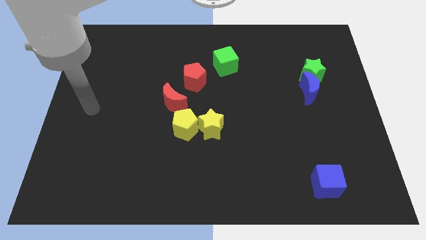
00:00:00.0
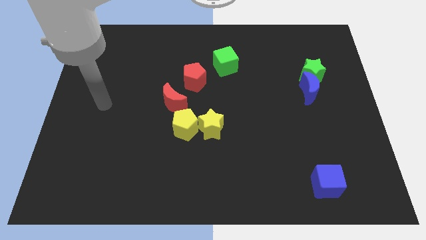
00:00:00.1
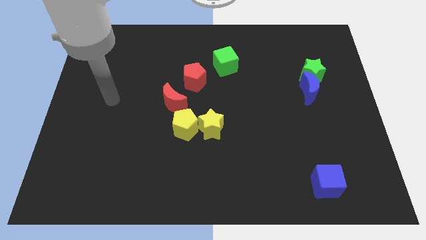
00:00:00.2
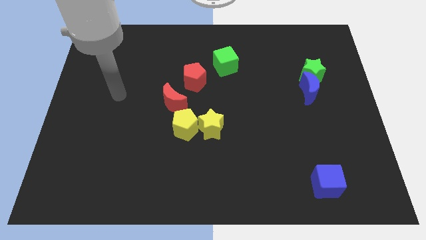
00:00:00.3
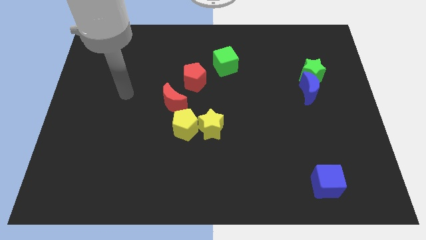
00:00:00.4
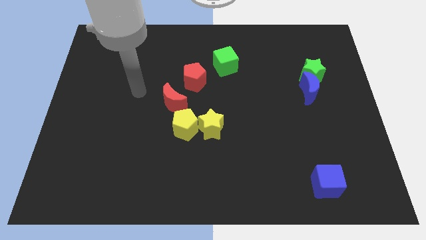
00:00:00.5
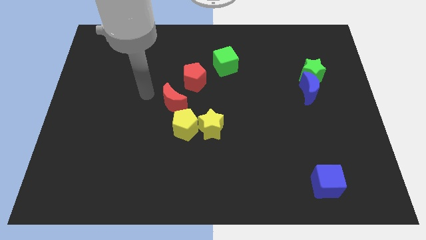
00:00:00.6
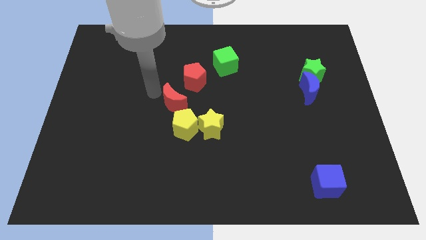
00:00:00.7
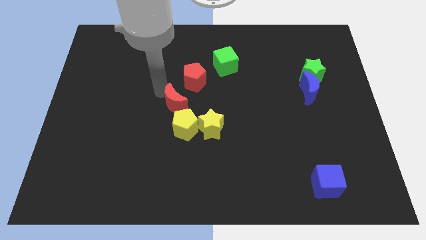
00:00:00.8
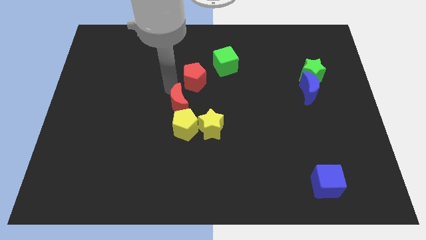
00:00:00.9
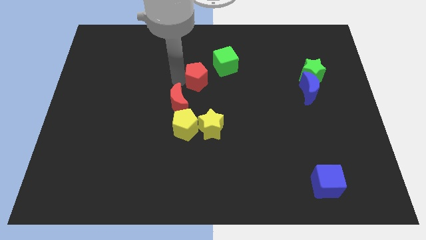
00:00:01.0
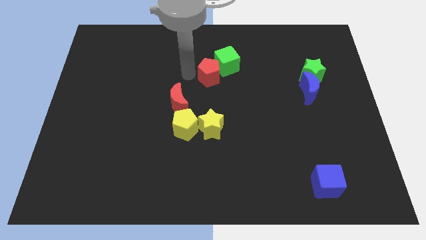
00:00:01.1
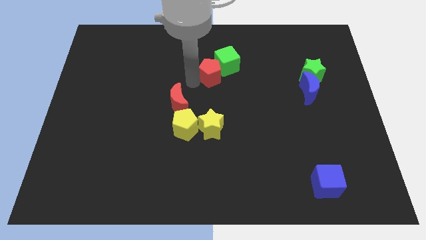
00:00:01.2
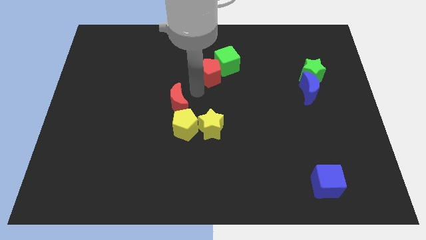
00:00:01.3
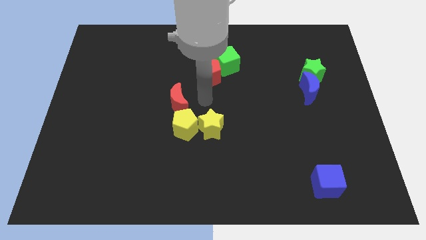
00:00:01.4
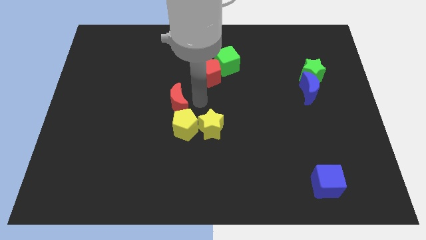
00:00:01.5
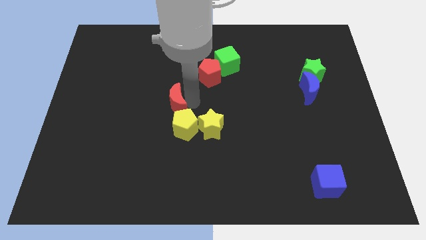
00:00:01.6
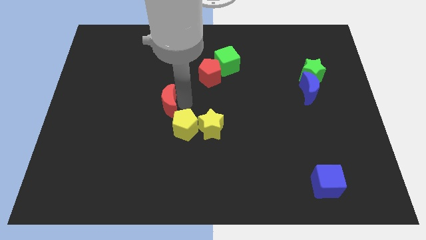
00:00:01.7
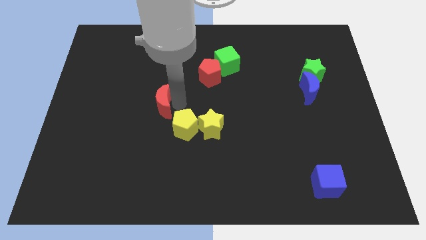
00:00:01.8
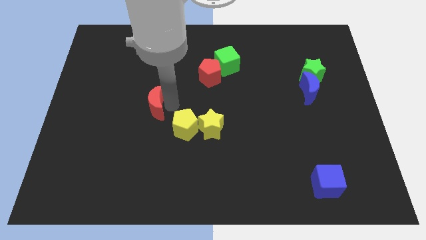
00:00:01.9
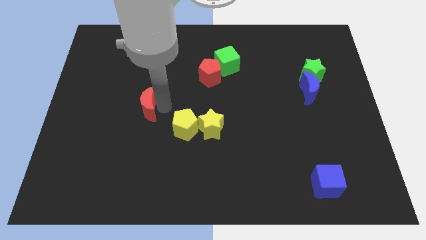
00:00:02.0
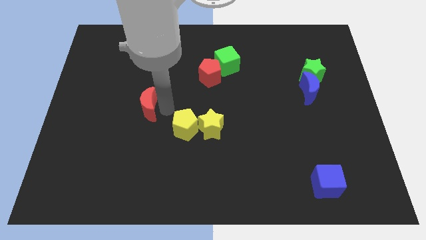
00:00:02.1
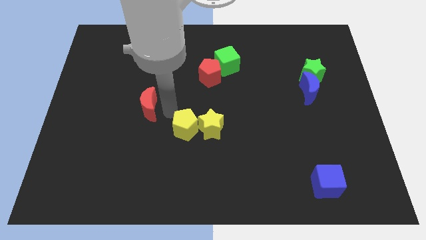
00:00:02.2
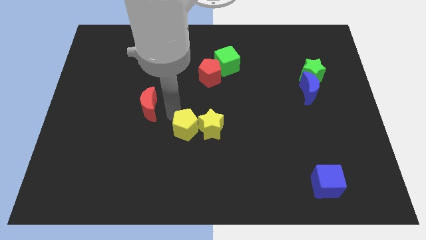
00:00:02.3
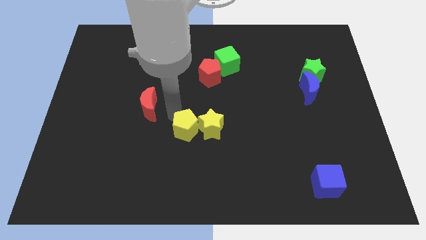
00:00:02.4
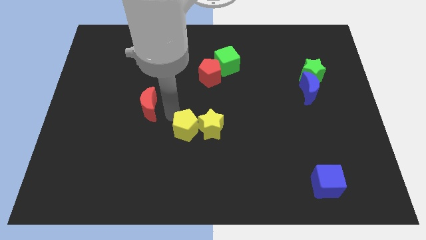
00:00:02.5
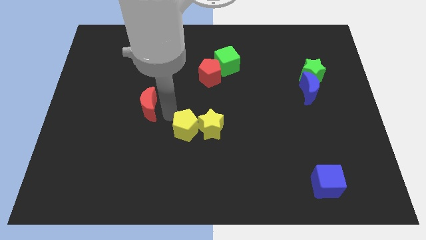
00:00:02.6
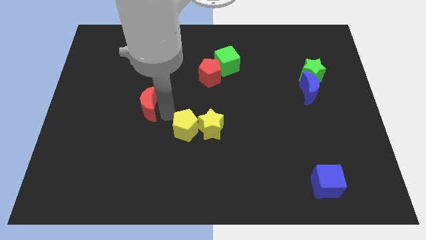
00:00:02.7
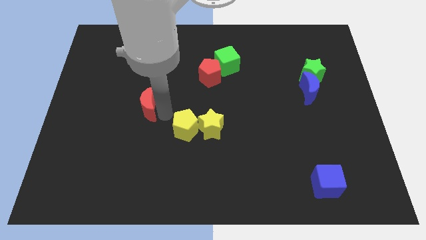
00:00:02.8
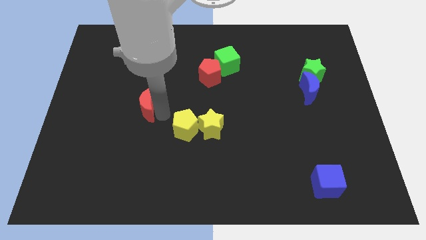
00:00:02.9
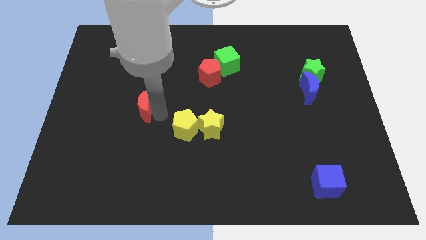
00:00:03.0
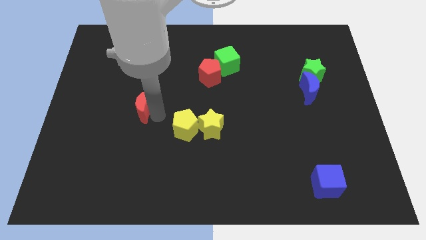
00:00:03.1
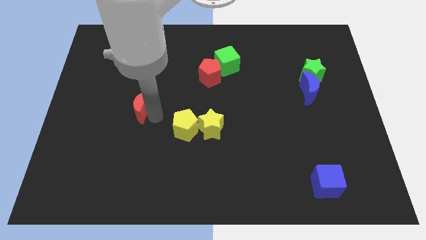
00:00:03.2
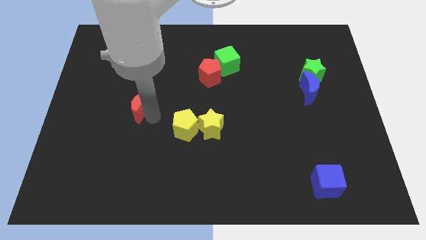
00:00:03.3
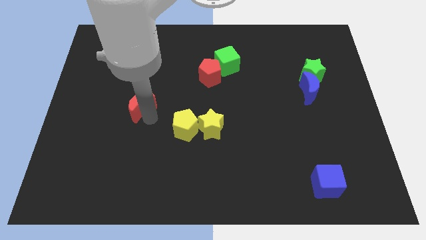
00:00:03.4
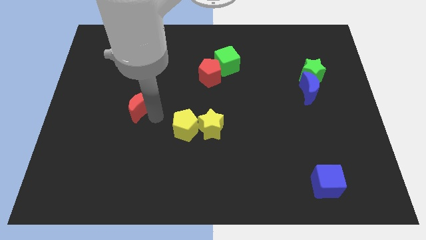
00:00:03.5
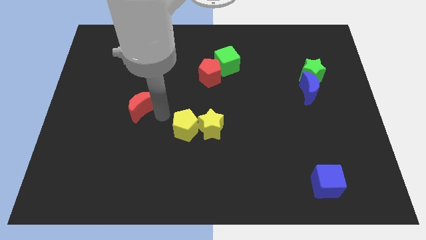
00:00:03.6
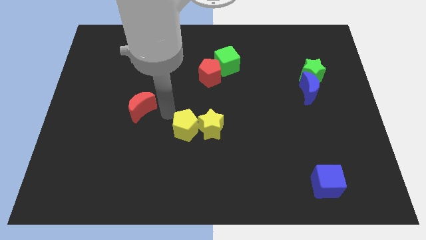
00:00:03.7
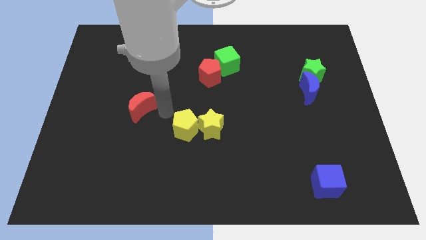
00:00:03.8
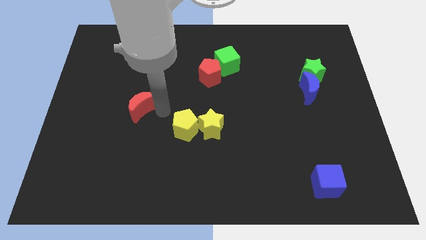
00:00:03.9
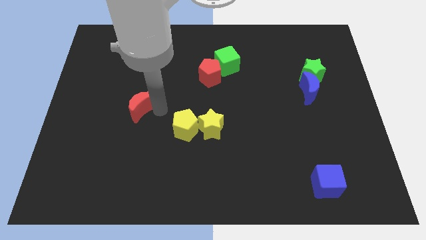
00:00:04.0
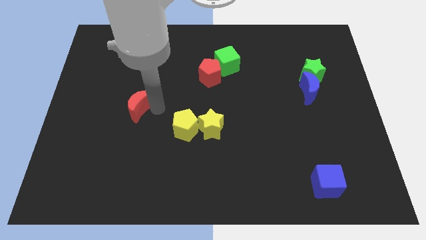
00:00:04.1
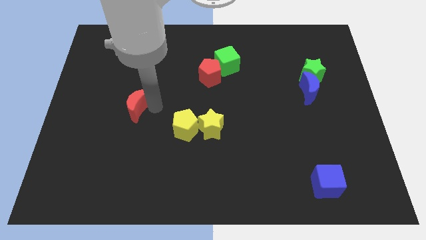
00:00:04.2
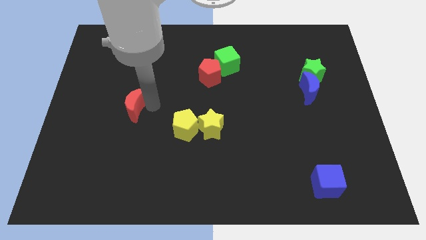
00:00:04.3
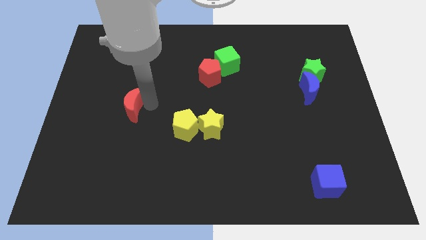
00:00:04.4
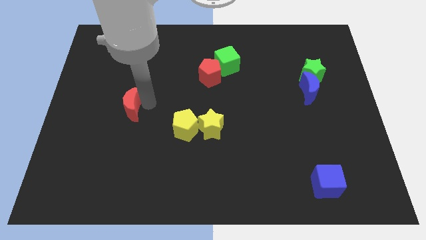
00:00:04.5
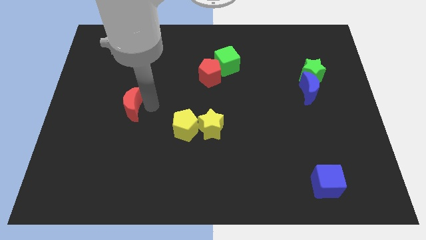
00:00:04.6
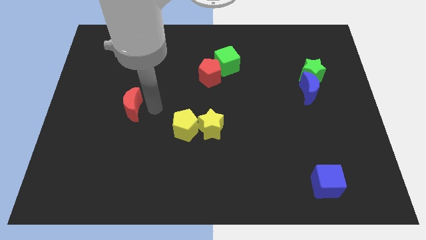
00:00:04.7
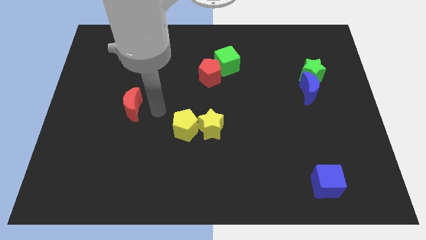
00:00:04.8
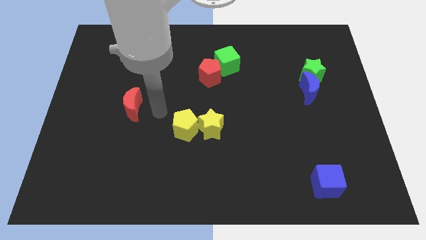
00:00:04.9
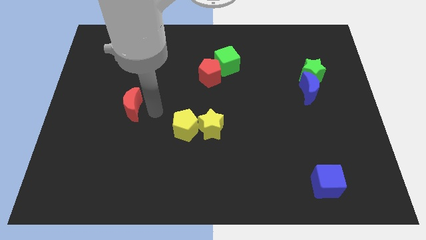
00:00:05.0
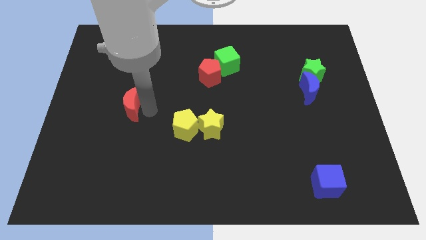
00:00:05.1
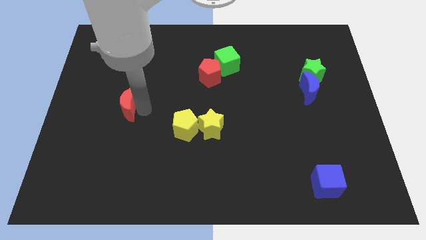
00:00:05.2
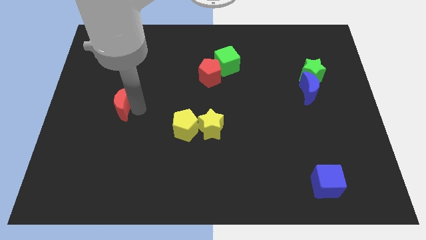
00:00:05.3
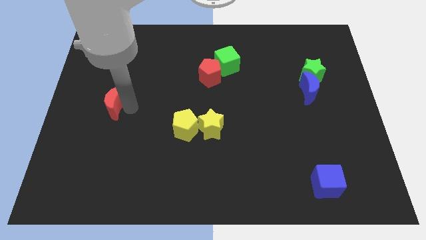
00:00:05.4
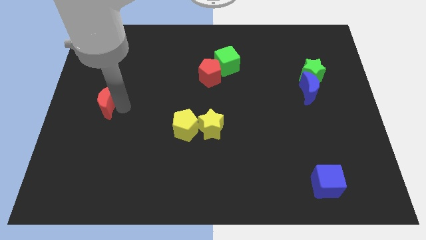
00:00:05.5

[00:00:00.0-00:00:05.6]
put the red moon to the left side
